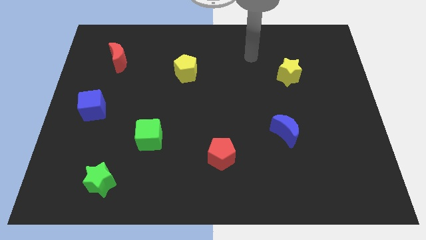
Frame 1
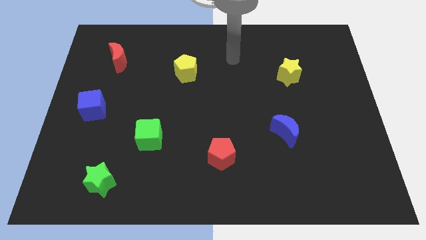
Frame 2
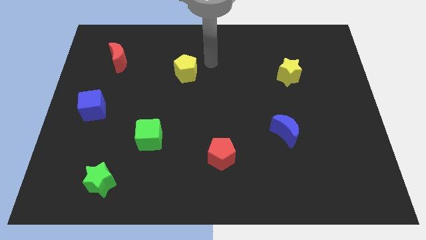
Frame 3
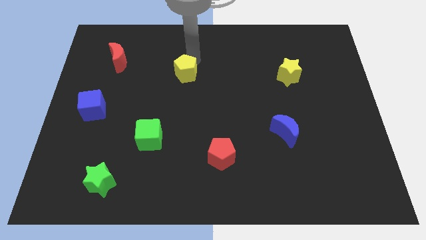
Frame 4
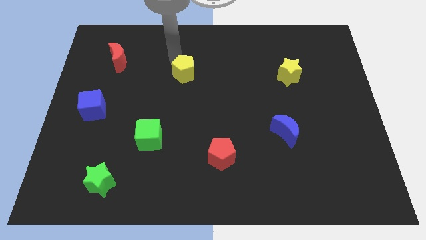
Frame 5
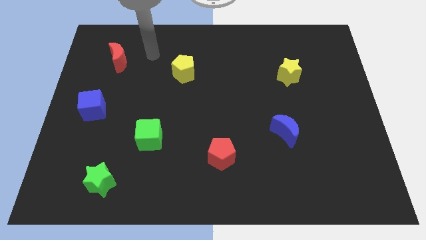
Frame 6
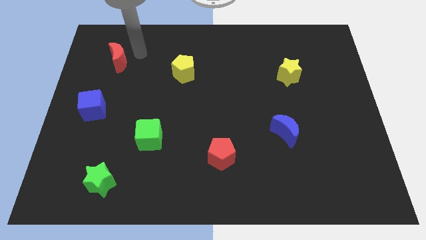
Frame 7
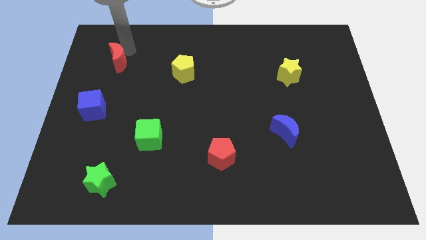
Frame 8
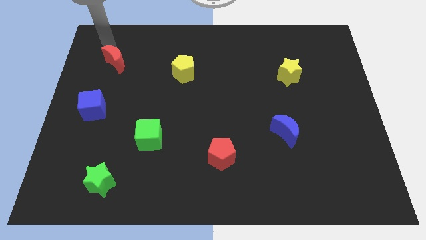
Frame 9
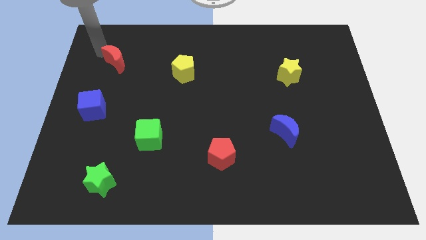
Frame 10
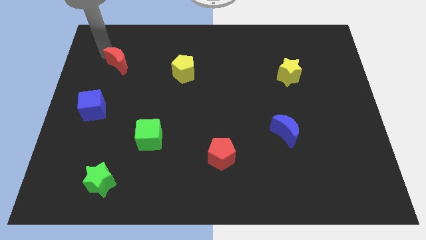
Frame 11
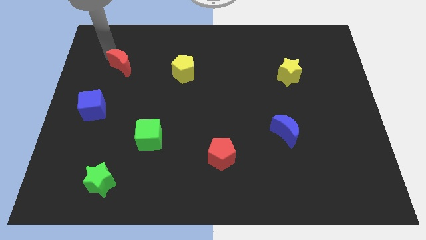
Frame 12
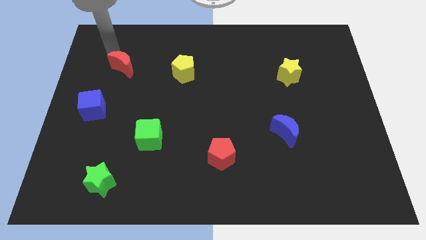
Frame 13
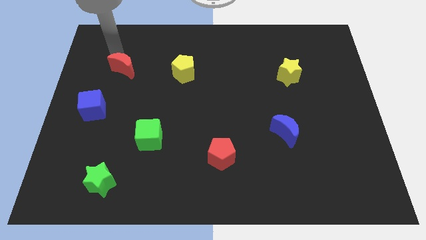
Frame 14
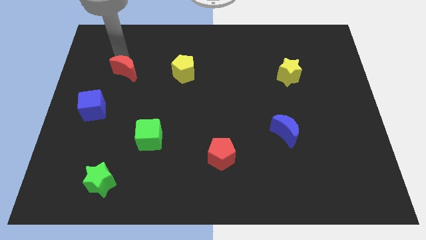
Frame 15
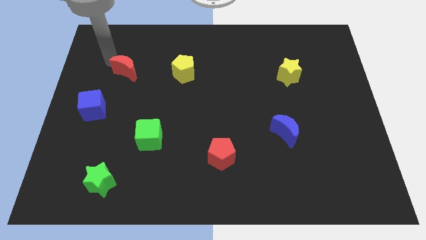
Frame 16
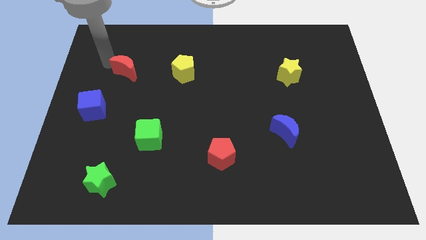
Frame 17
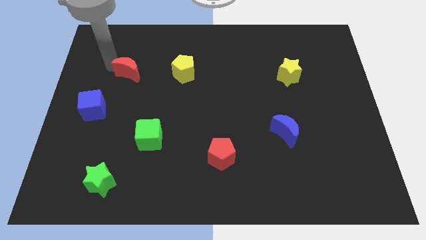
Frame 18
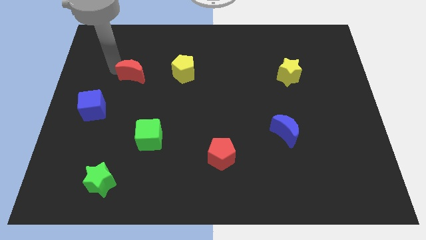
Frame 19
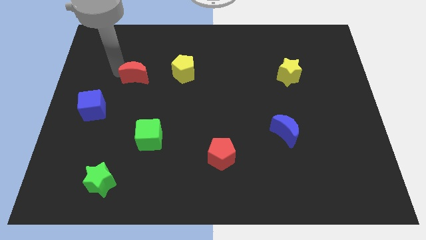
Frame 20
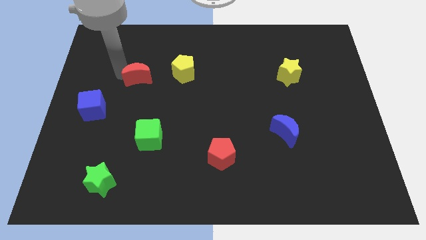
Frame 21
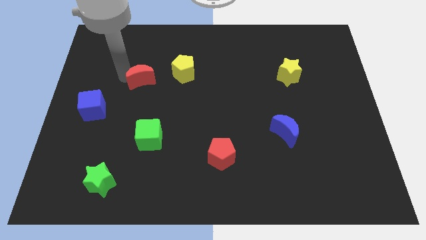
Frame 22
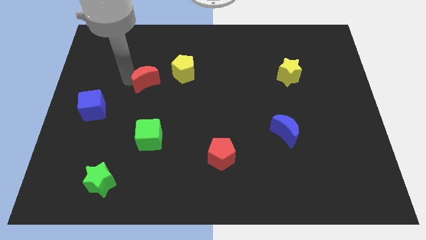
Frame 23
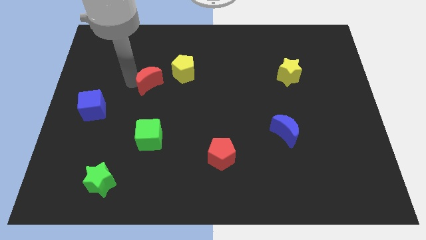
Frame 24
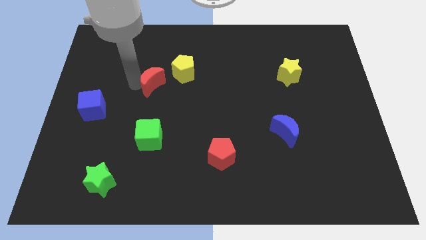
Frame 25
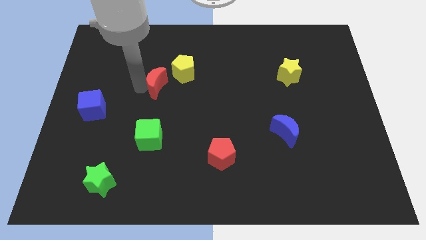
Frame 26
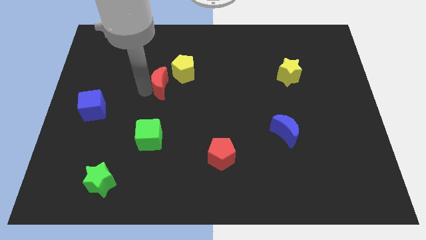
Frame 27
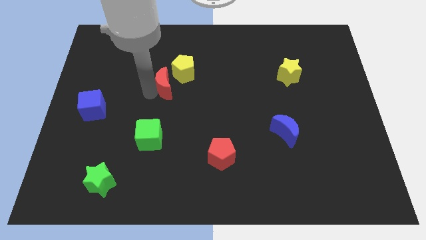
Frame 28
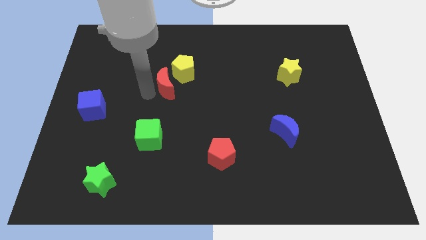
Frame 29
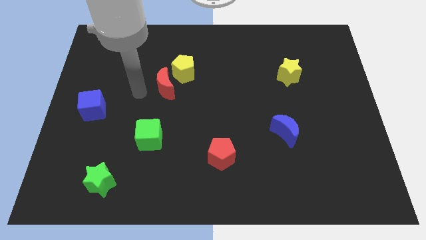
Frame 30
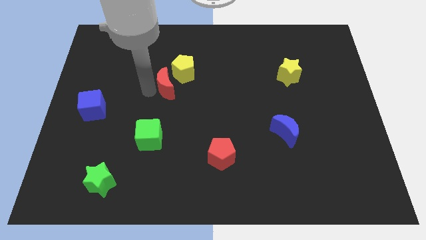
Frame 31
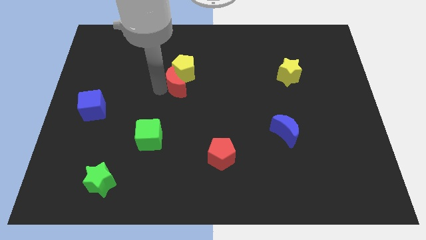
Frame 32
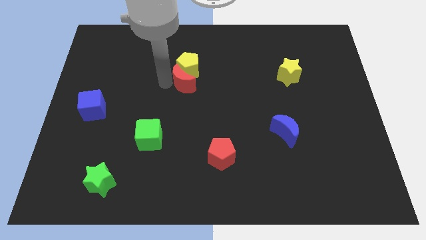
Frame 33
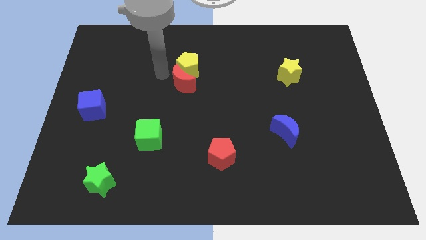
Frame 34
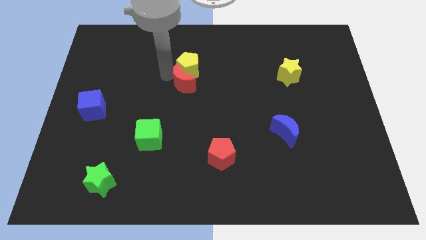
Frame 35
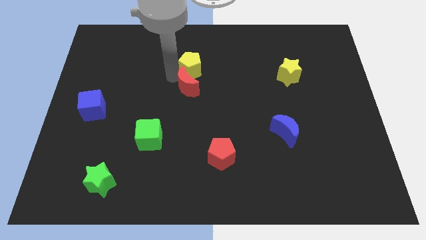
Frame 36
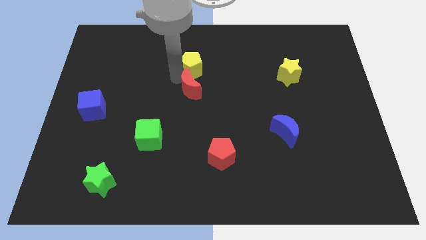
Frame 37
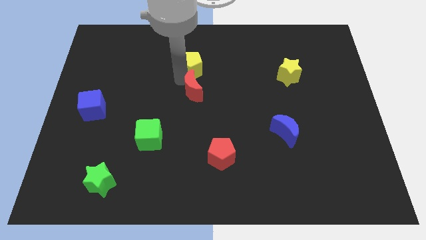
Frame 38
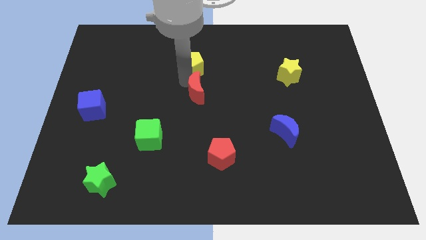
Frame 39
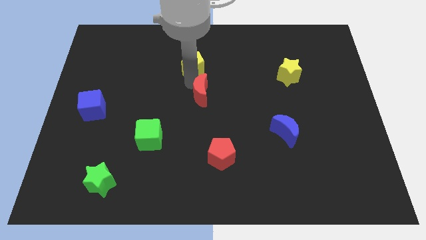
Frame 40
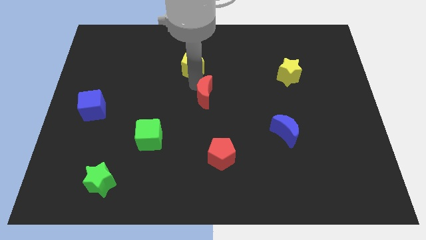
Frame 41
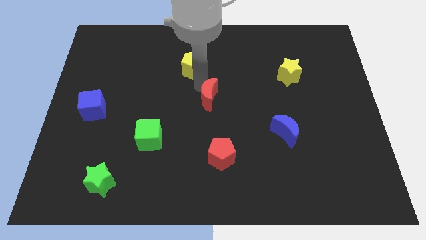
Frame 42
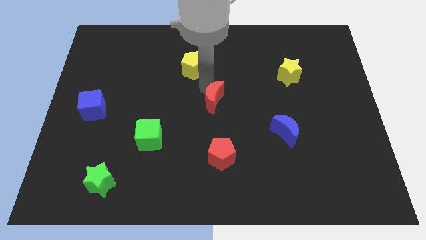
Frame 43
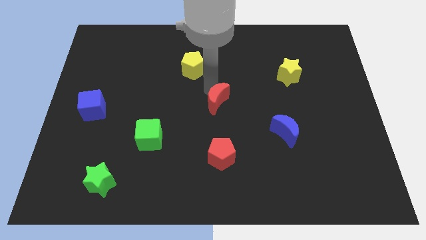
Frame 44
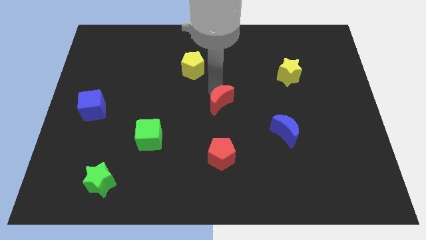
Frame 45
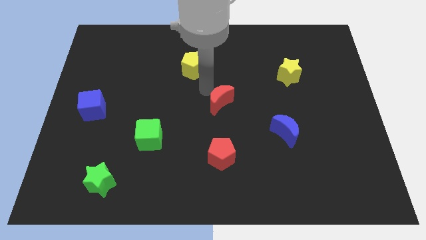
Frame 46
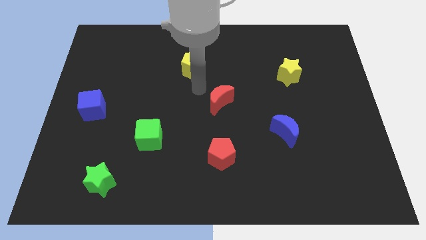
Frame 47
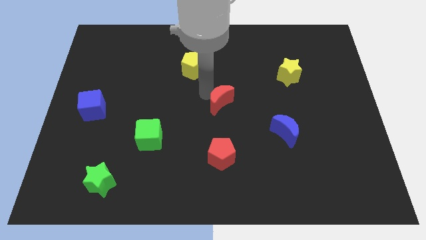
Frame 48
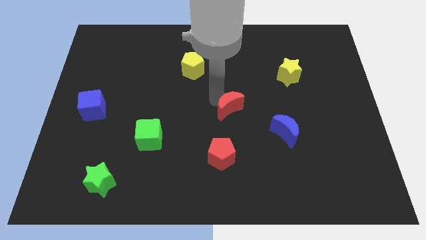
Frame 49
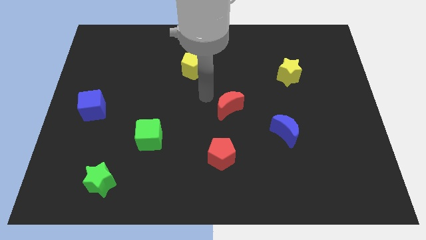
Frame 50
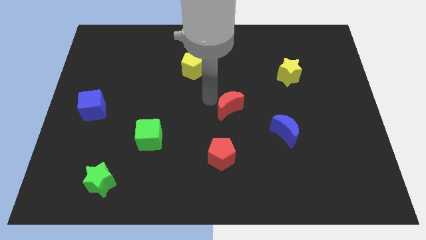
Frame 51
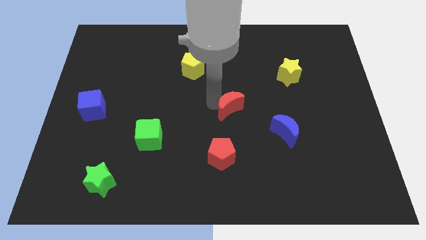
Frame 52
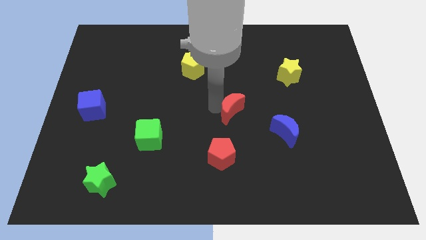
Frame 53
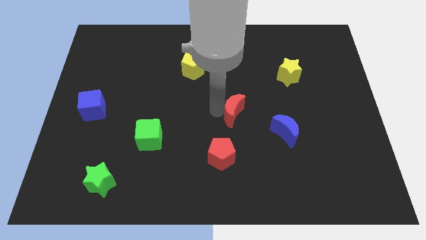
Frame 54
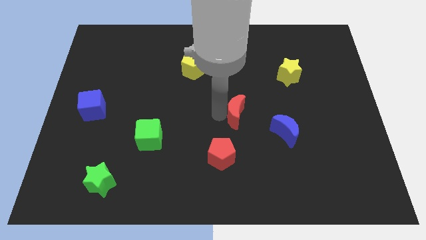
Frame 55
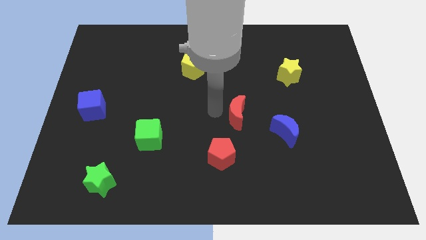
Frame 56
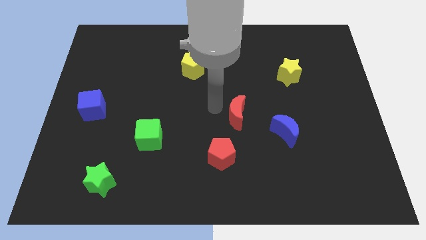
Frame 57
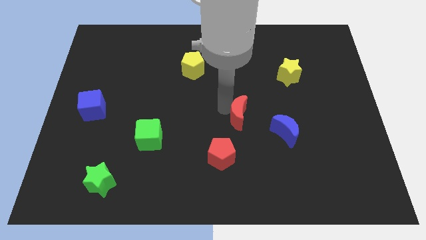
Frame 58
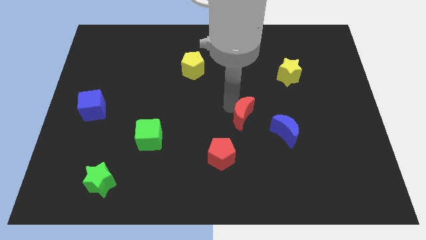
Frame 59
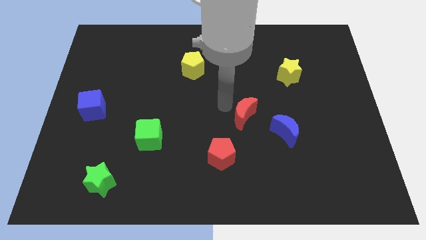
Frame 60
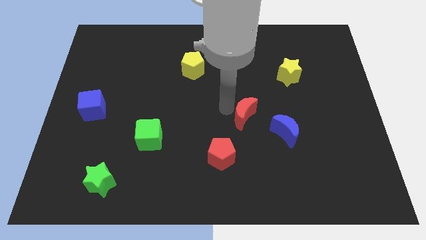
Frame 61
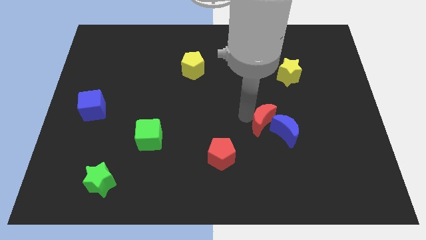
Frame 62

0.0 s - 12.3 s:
push the red moon to the blue moon

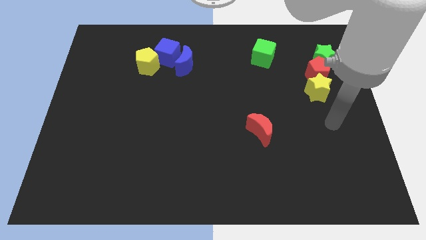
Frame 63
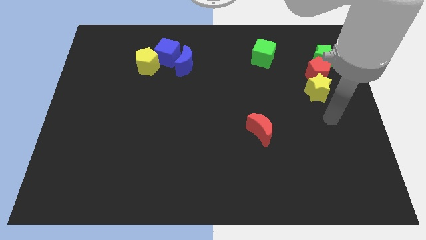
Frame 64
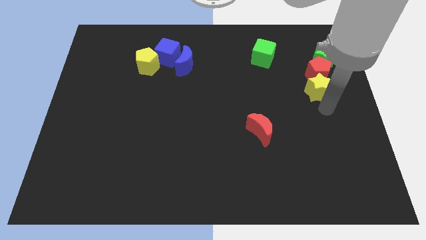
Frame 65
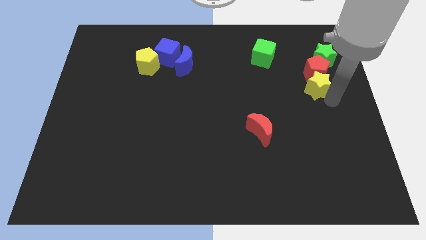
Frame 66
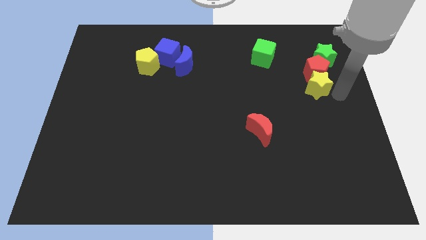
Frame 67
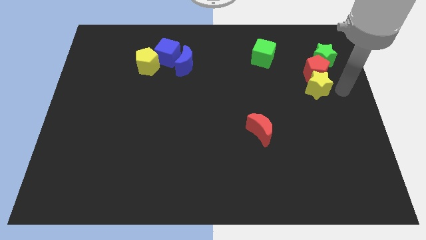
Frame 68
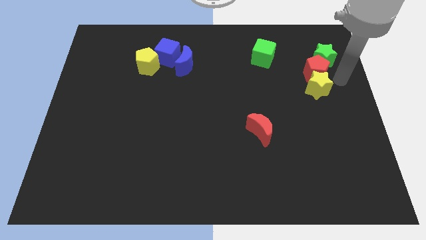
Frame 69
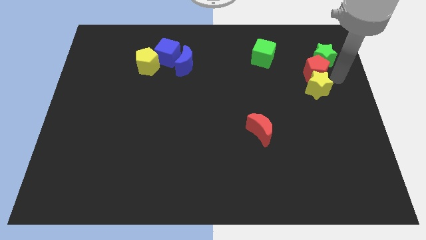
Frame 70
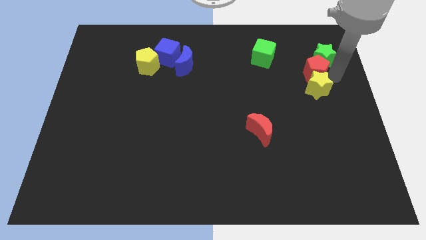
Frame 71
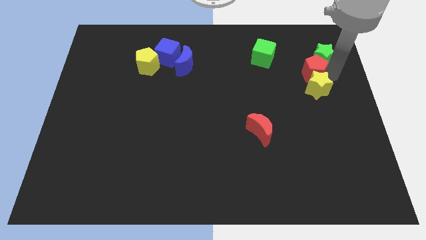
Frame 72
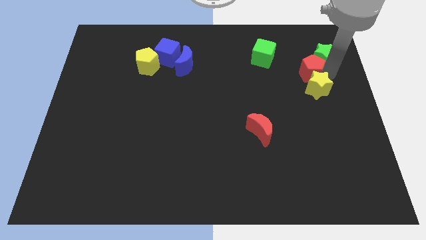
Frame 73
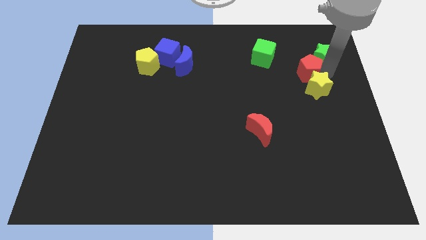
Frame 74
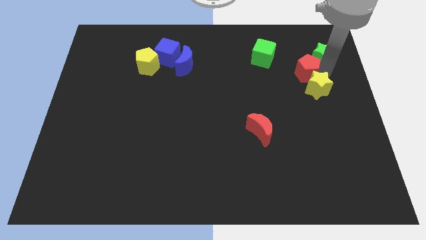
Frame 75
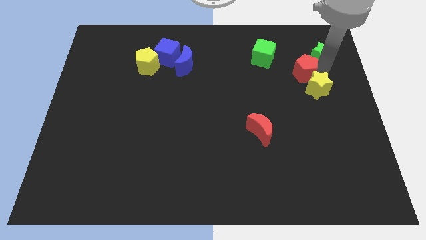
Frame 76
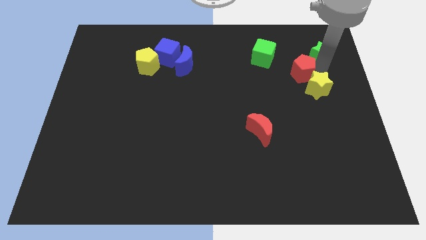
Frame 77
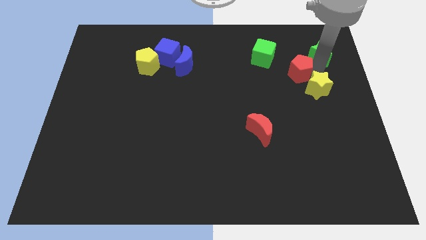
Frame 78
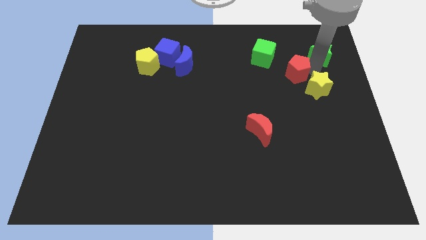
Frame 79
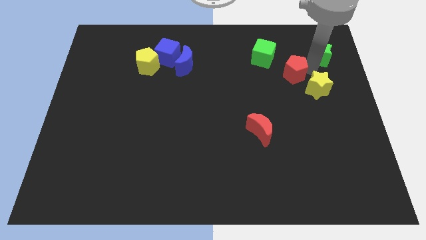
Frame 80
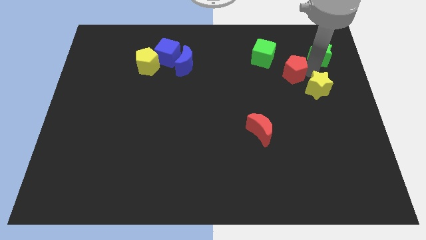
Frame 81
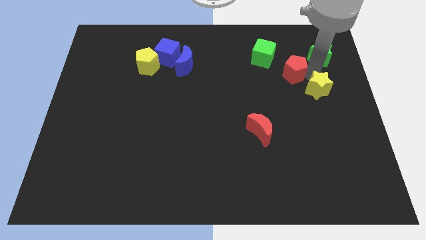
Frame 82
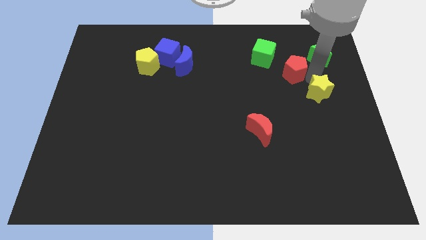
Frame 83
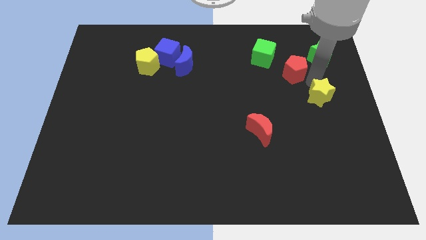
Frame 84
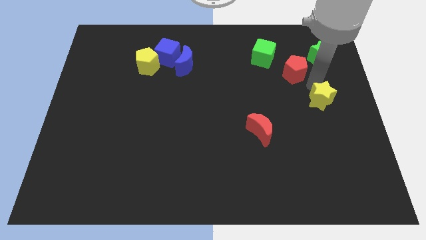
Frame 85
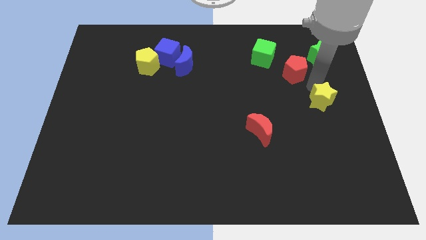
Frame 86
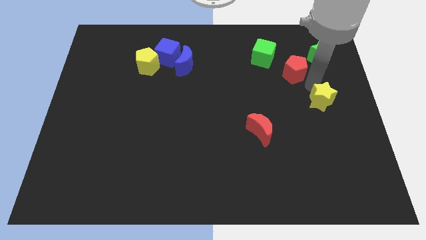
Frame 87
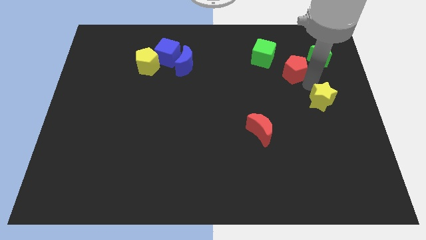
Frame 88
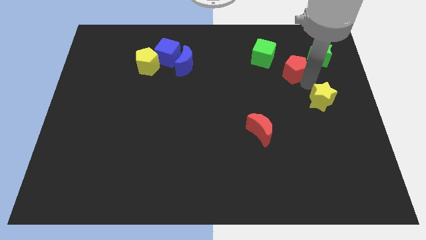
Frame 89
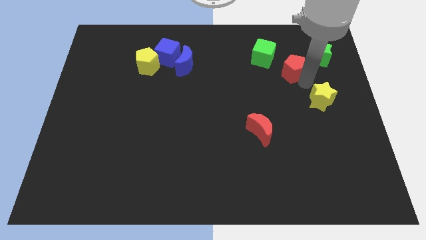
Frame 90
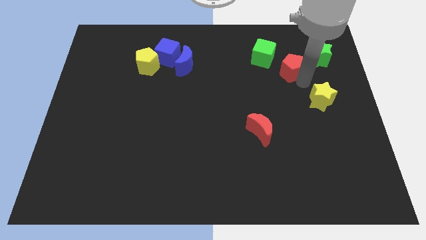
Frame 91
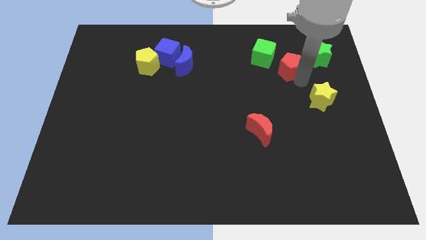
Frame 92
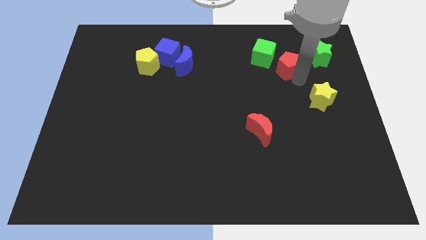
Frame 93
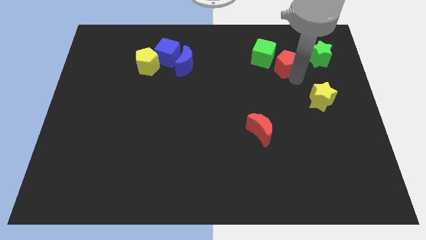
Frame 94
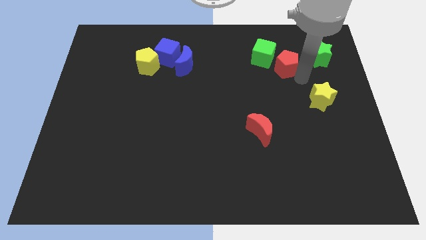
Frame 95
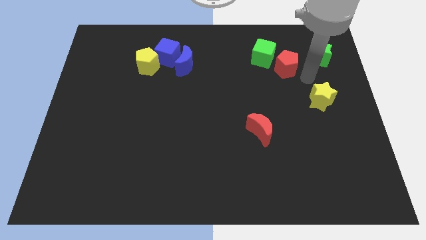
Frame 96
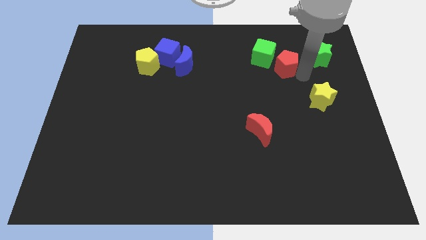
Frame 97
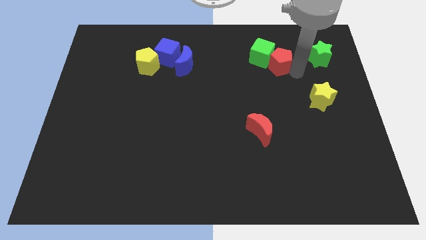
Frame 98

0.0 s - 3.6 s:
move the red pentagon next to the green cube
